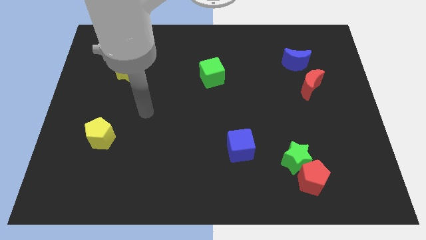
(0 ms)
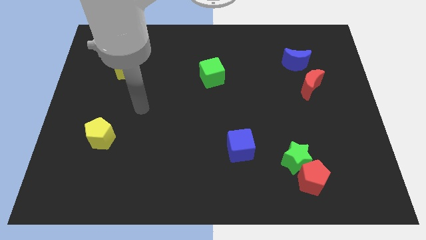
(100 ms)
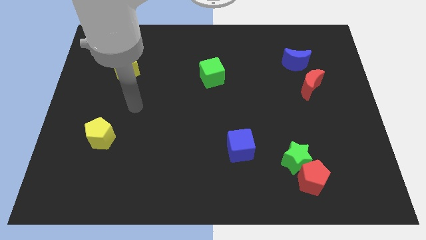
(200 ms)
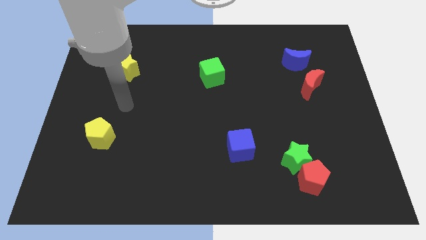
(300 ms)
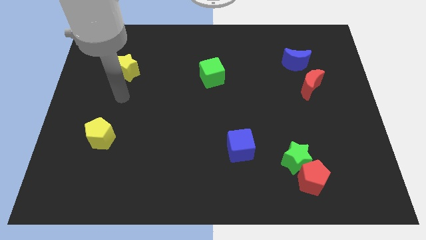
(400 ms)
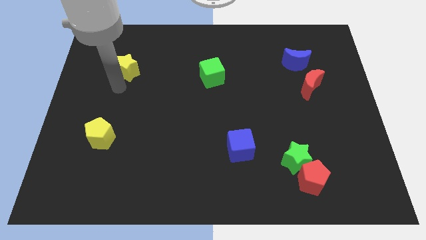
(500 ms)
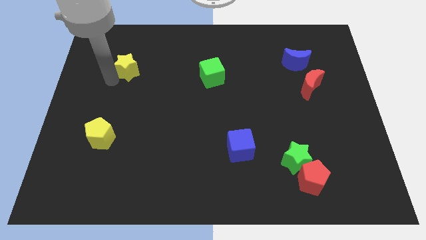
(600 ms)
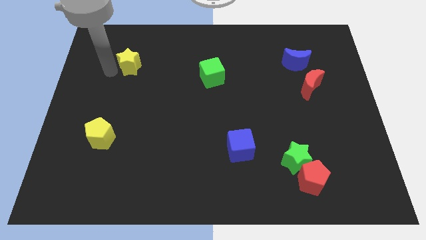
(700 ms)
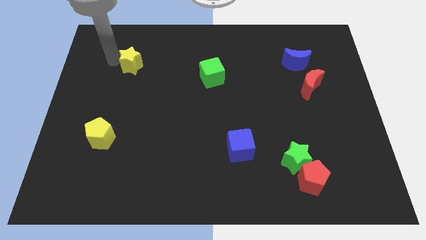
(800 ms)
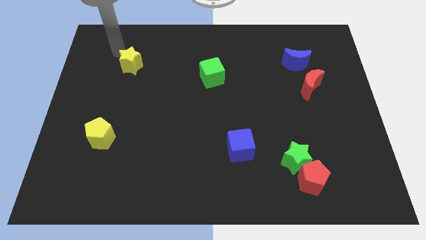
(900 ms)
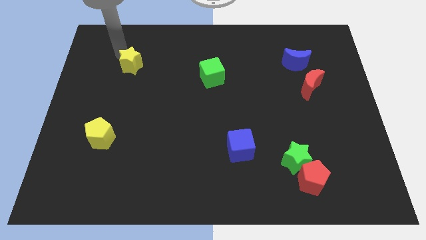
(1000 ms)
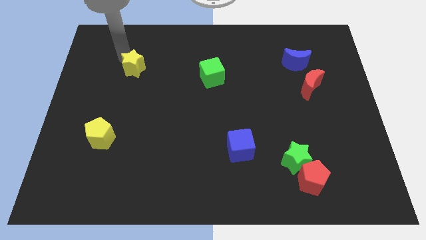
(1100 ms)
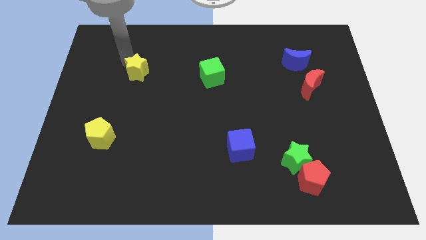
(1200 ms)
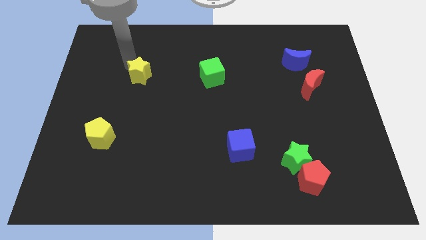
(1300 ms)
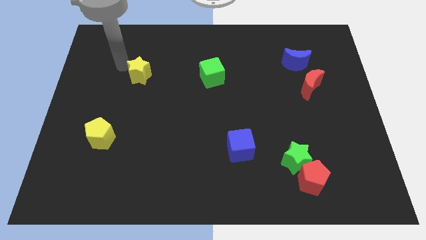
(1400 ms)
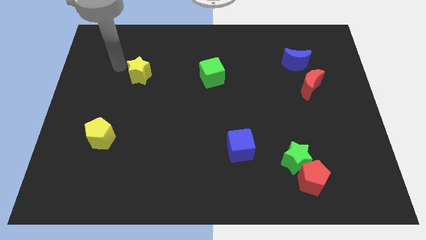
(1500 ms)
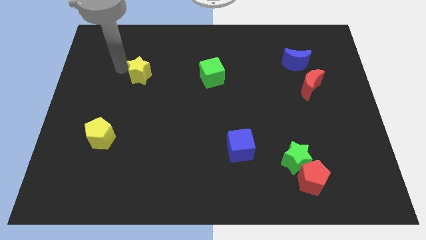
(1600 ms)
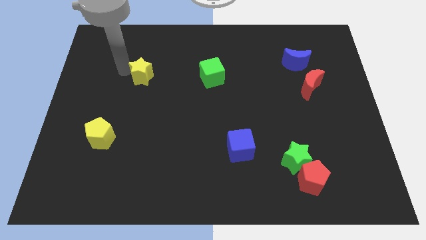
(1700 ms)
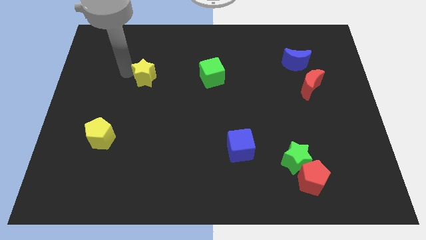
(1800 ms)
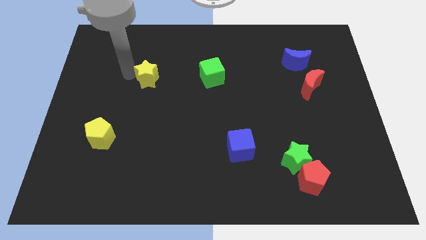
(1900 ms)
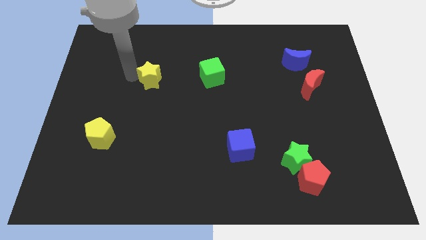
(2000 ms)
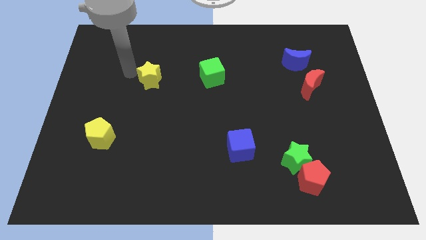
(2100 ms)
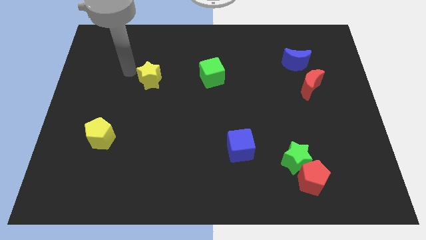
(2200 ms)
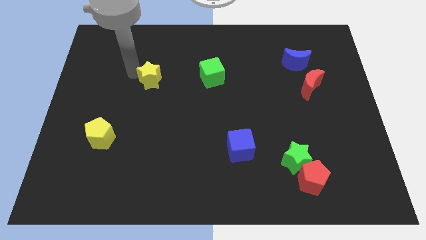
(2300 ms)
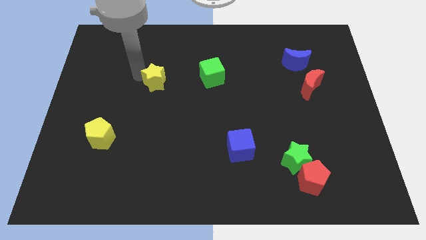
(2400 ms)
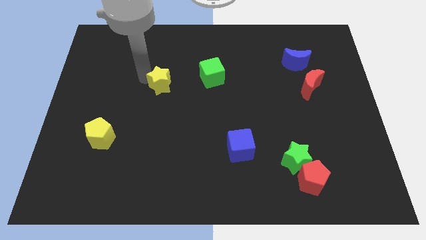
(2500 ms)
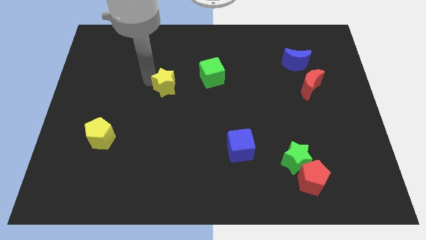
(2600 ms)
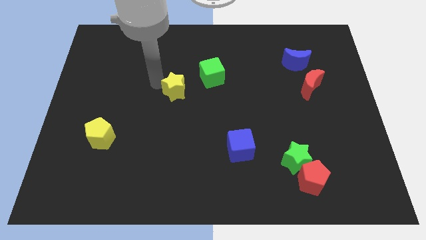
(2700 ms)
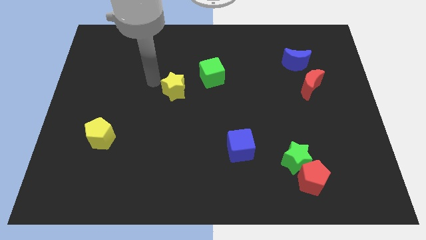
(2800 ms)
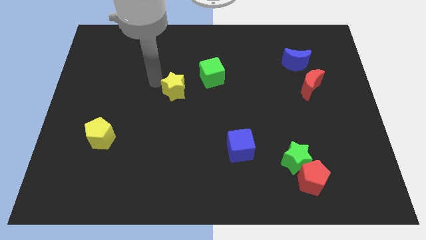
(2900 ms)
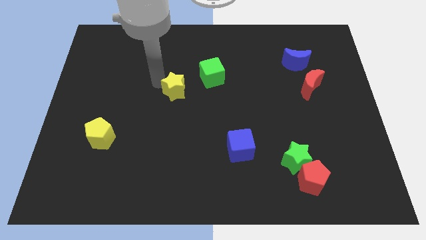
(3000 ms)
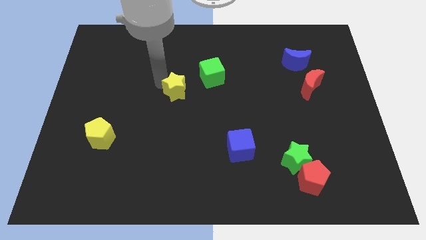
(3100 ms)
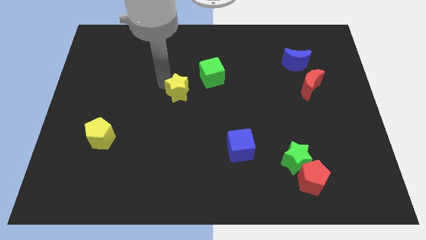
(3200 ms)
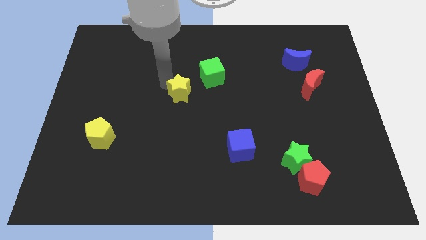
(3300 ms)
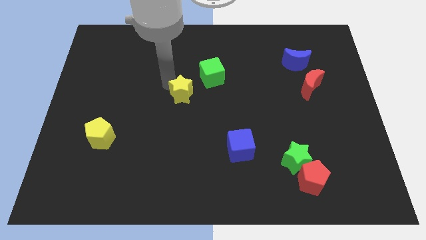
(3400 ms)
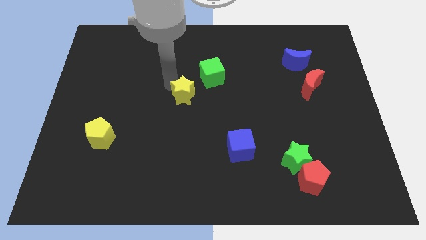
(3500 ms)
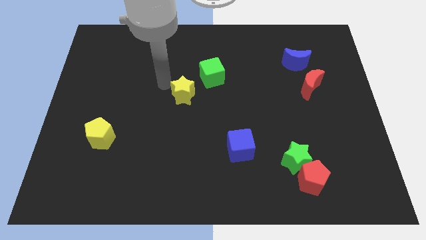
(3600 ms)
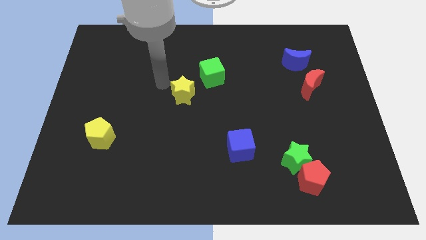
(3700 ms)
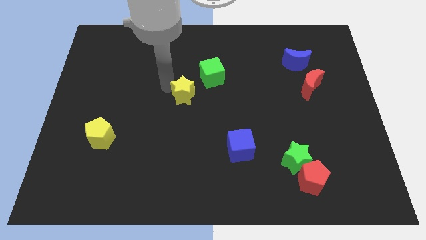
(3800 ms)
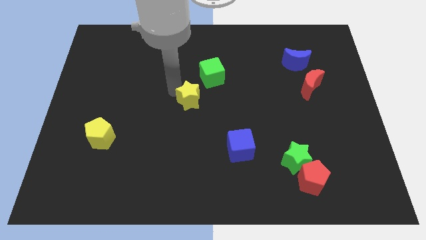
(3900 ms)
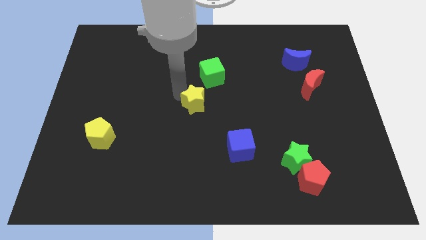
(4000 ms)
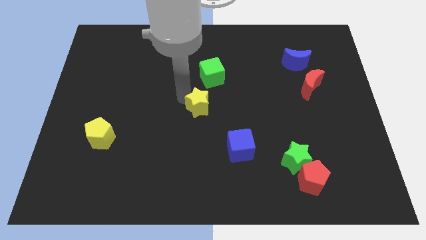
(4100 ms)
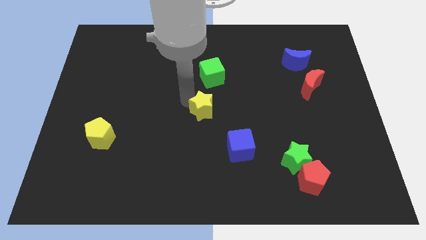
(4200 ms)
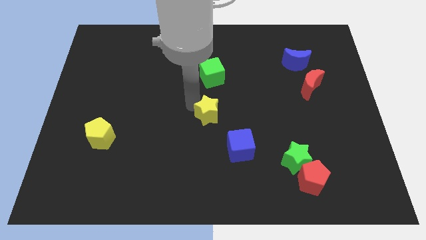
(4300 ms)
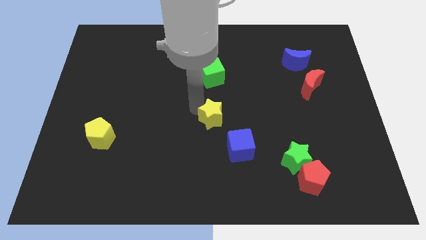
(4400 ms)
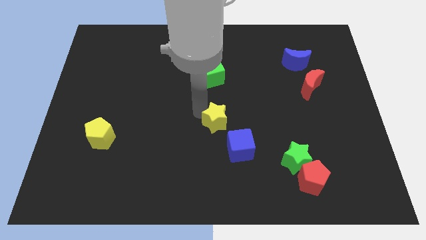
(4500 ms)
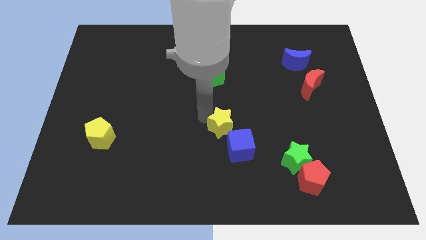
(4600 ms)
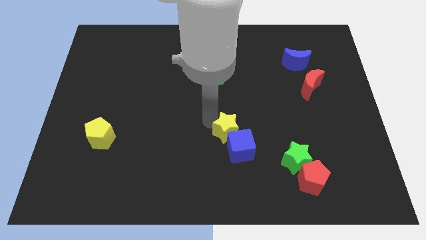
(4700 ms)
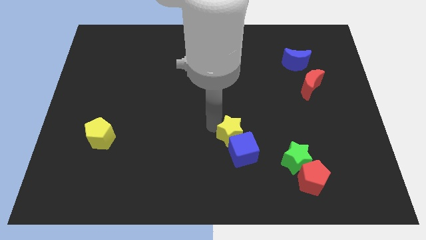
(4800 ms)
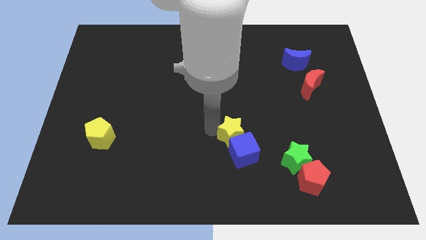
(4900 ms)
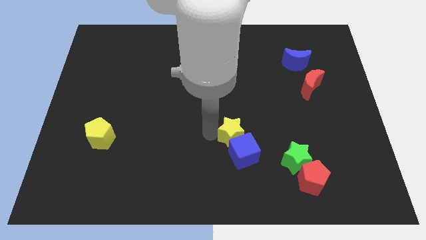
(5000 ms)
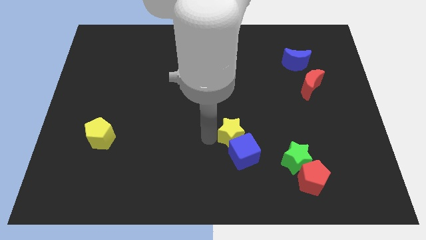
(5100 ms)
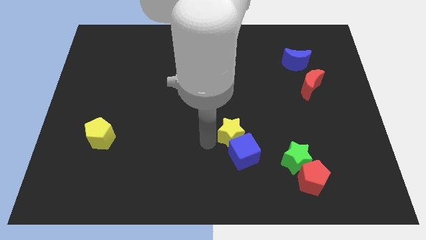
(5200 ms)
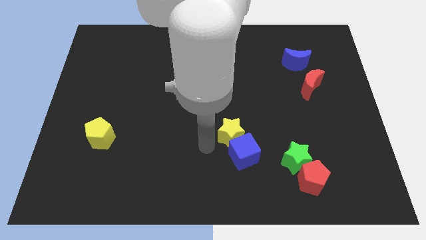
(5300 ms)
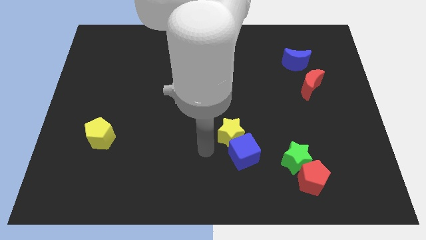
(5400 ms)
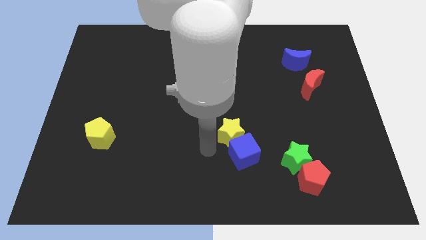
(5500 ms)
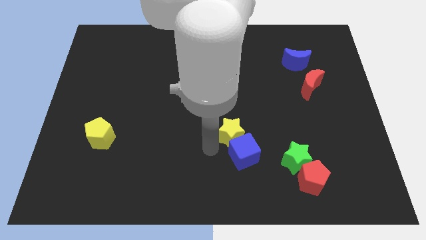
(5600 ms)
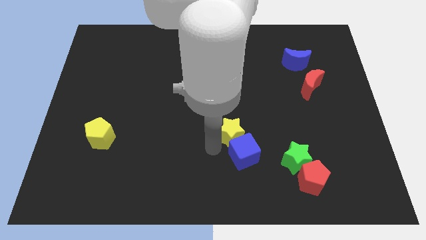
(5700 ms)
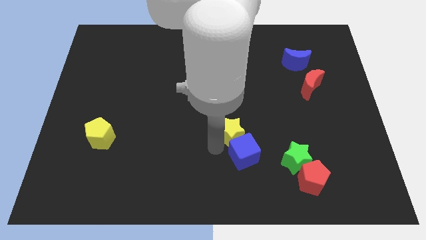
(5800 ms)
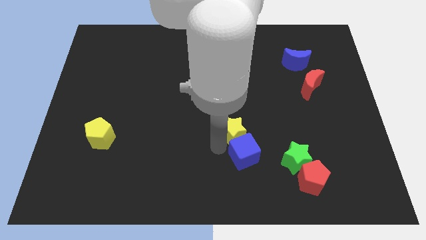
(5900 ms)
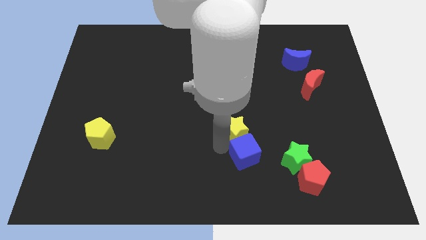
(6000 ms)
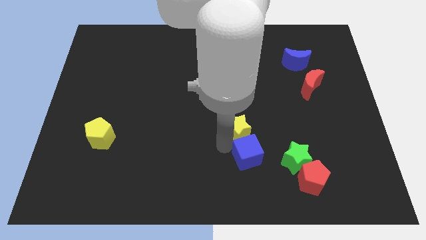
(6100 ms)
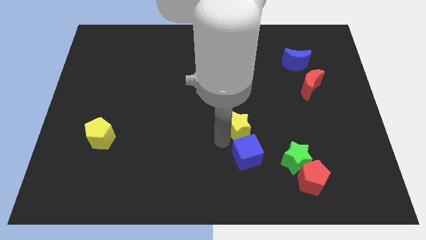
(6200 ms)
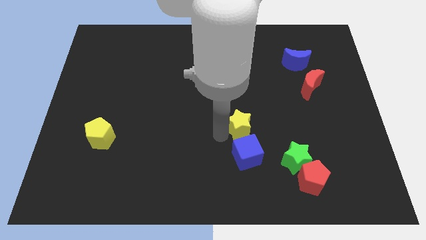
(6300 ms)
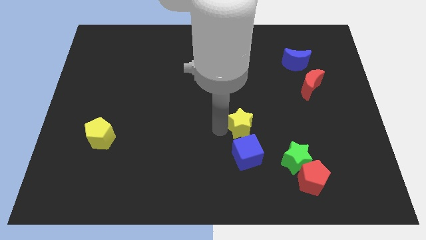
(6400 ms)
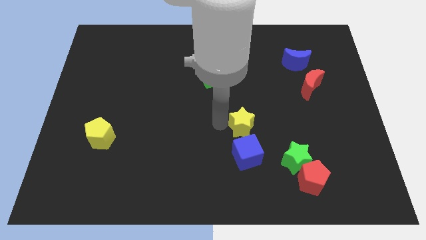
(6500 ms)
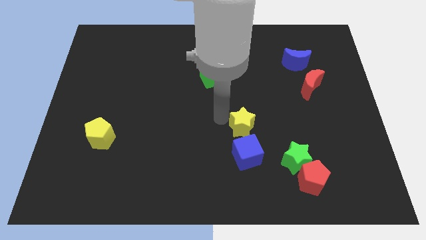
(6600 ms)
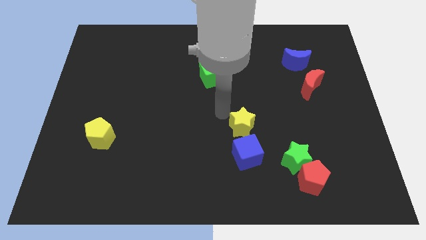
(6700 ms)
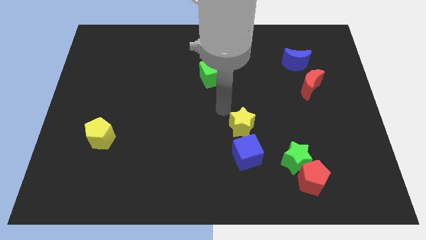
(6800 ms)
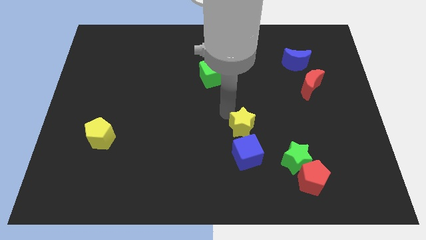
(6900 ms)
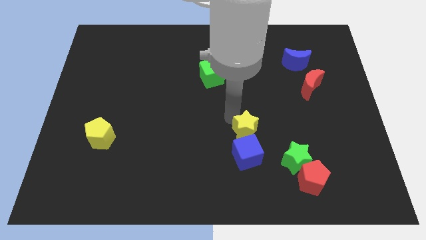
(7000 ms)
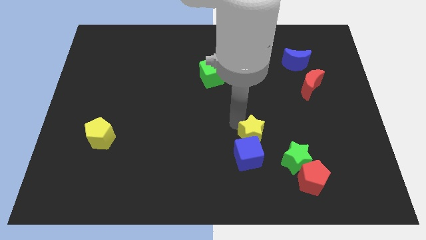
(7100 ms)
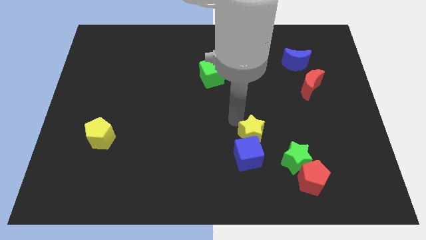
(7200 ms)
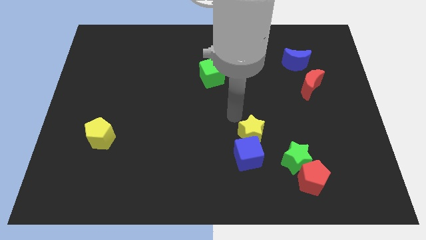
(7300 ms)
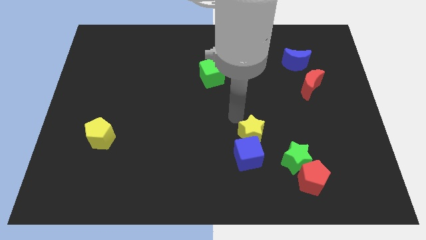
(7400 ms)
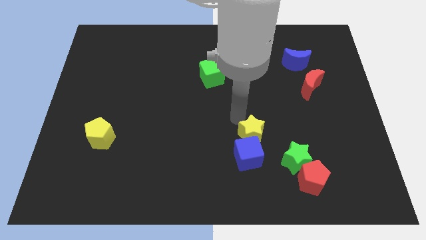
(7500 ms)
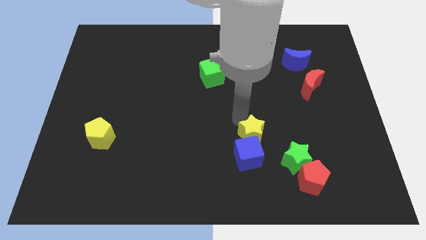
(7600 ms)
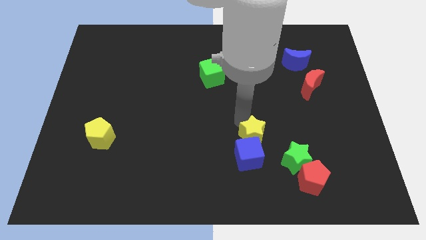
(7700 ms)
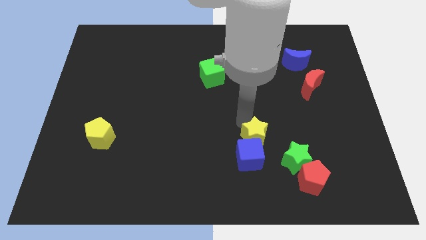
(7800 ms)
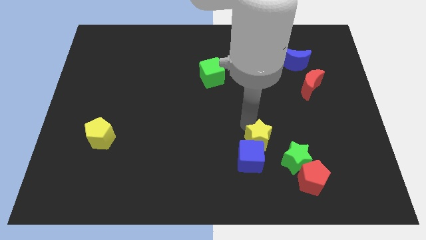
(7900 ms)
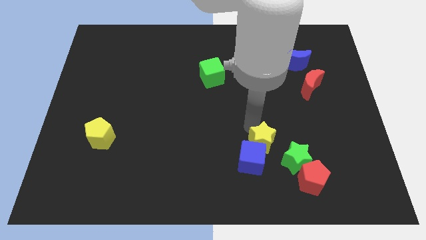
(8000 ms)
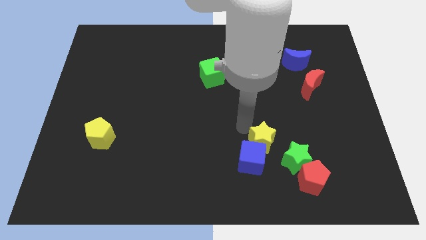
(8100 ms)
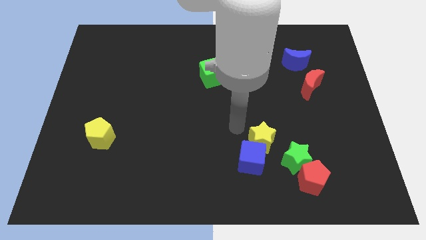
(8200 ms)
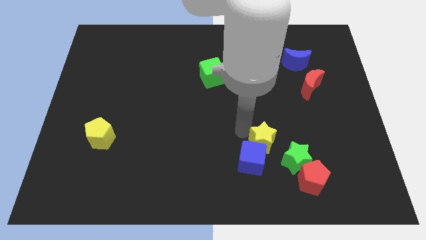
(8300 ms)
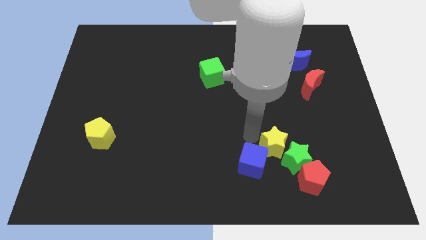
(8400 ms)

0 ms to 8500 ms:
slide the yellow star to the green star
